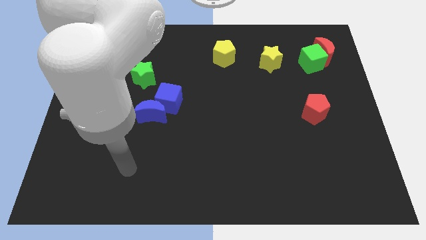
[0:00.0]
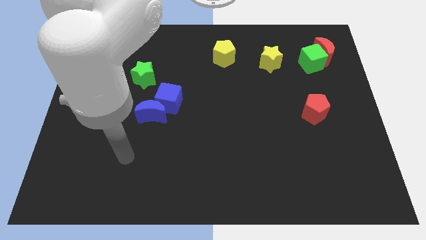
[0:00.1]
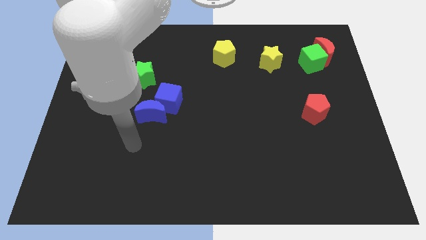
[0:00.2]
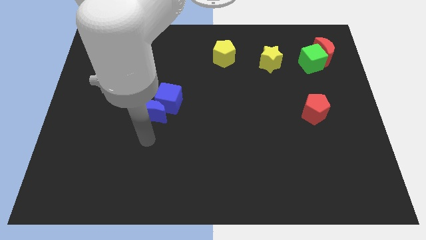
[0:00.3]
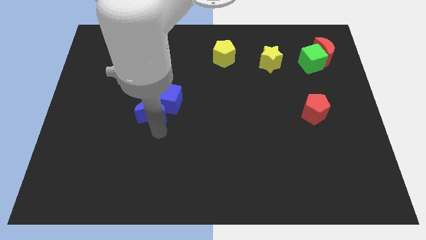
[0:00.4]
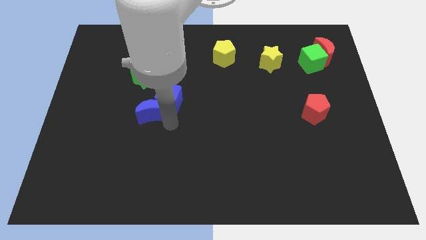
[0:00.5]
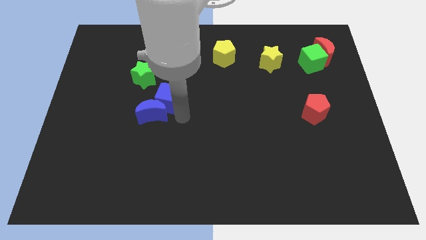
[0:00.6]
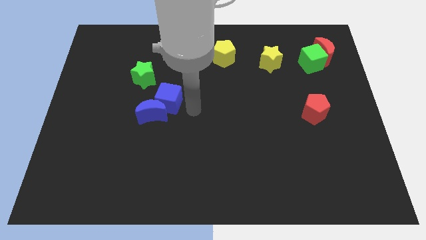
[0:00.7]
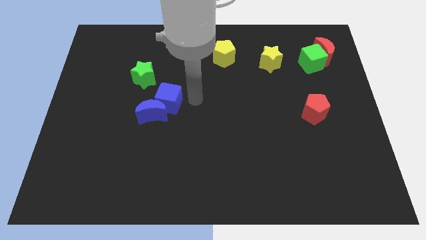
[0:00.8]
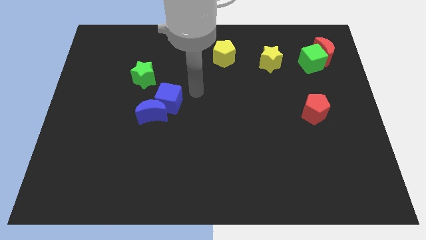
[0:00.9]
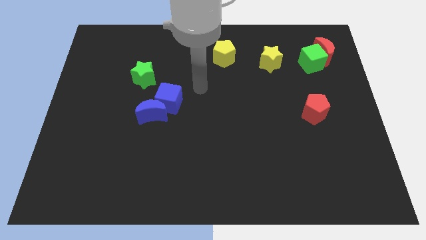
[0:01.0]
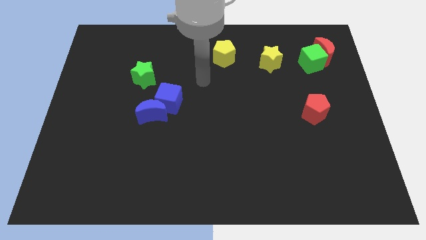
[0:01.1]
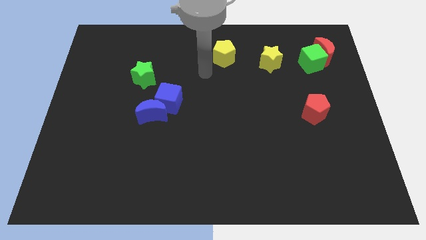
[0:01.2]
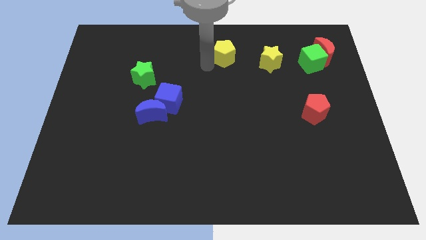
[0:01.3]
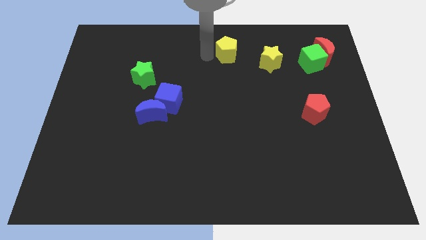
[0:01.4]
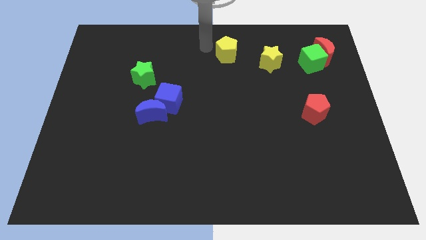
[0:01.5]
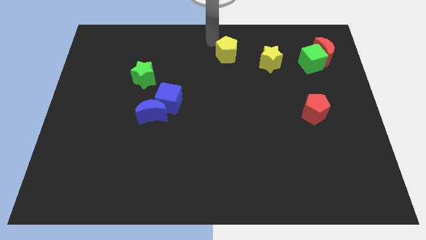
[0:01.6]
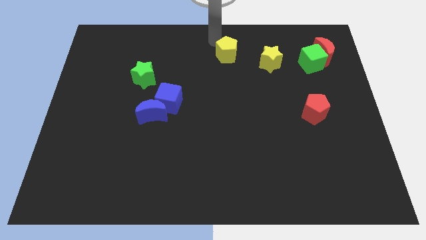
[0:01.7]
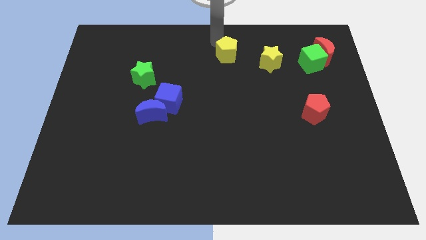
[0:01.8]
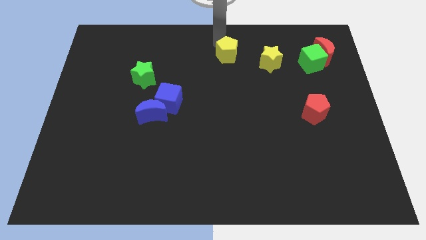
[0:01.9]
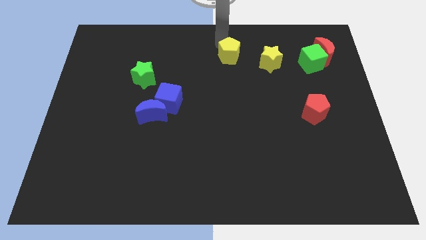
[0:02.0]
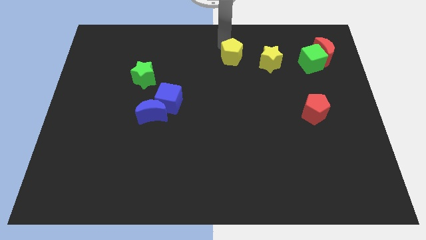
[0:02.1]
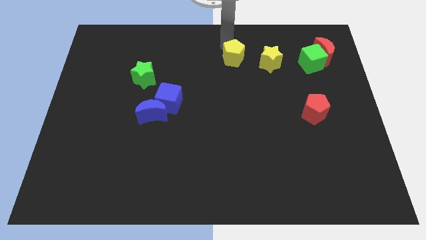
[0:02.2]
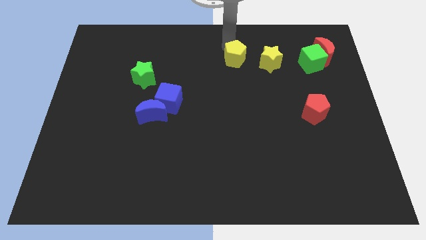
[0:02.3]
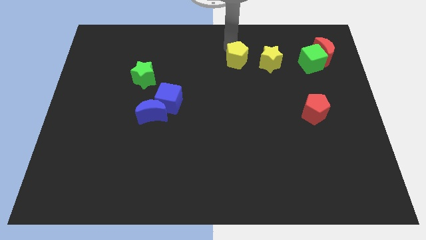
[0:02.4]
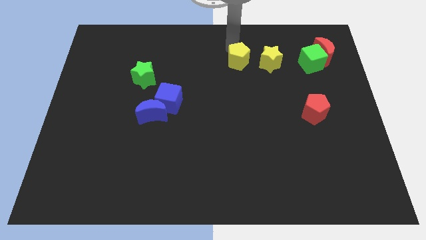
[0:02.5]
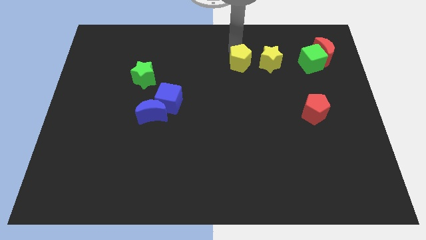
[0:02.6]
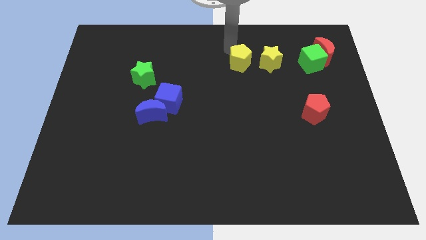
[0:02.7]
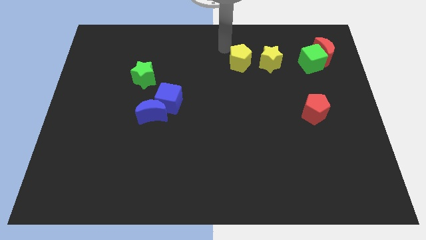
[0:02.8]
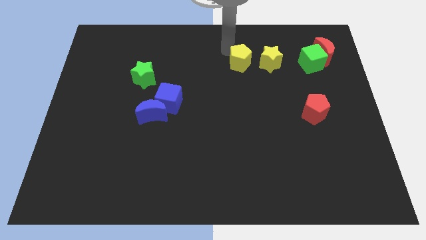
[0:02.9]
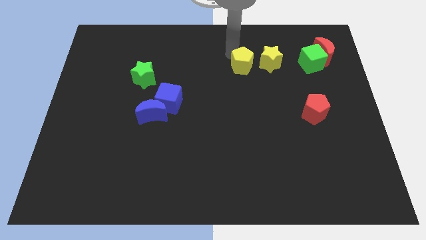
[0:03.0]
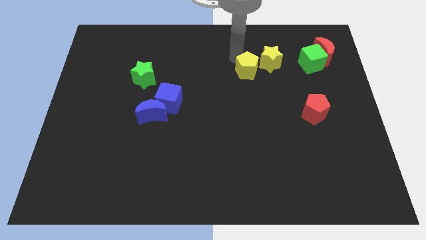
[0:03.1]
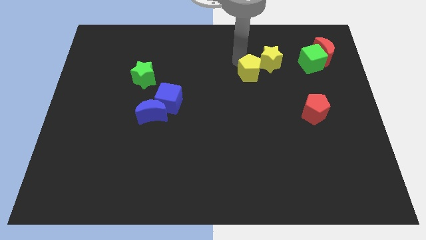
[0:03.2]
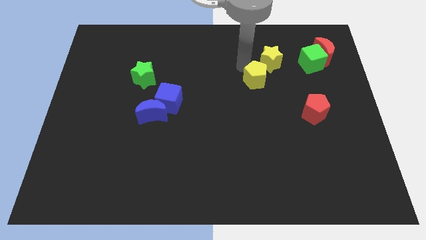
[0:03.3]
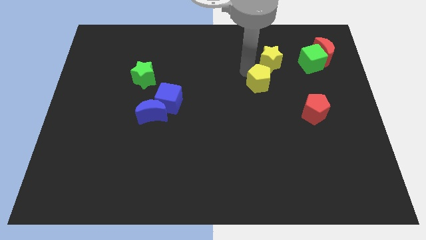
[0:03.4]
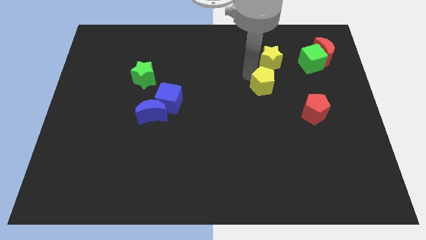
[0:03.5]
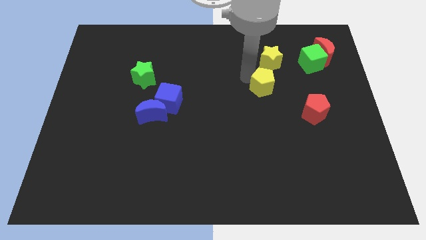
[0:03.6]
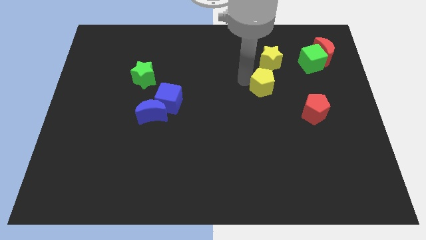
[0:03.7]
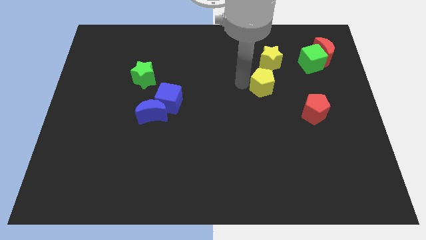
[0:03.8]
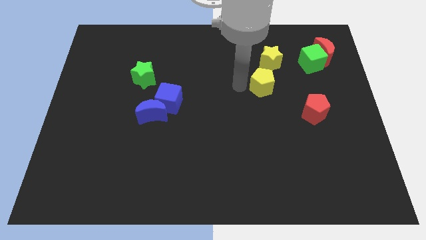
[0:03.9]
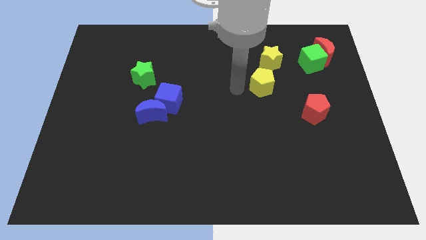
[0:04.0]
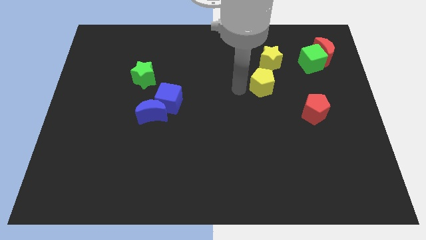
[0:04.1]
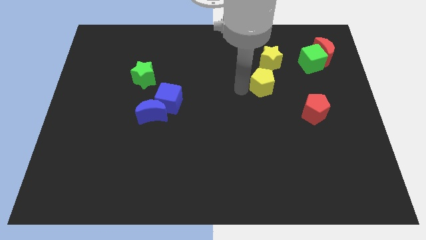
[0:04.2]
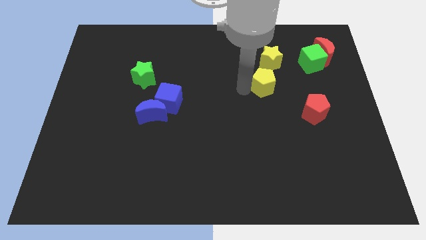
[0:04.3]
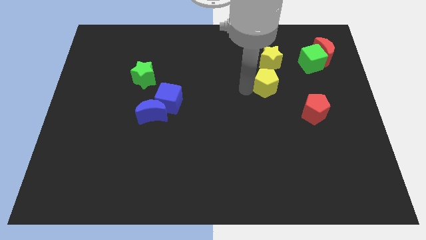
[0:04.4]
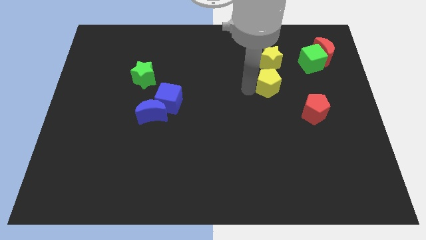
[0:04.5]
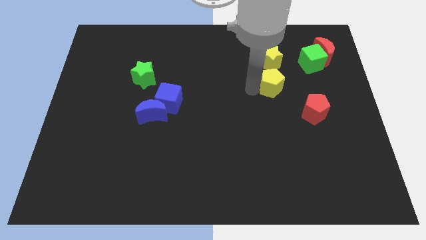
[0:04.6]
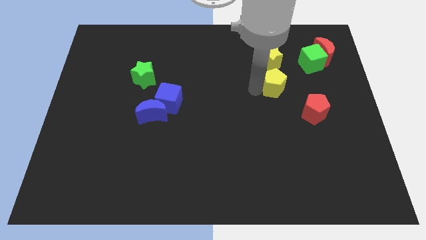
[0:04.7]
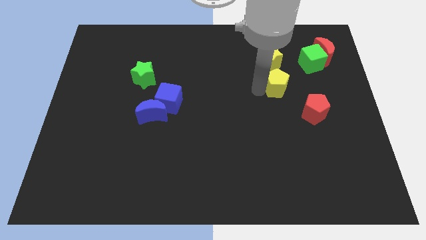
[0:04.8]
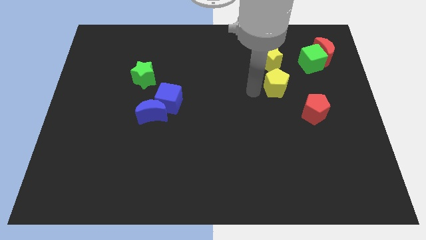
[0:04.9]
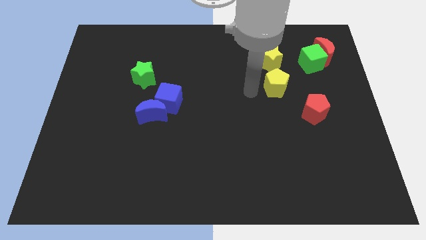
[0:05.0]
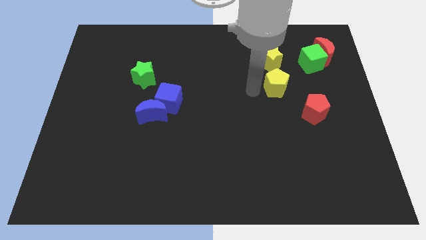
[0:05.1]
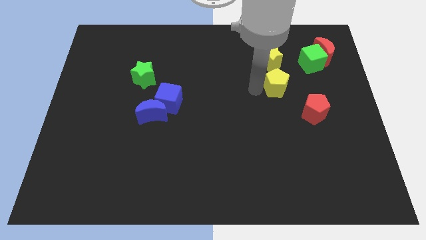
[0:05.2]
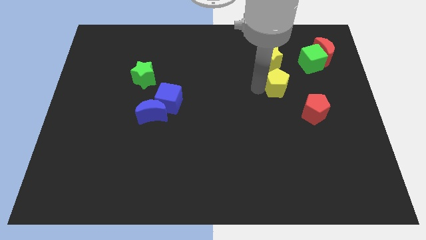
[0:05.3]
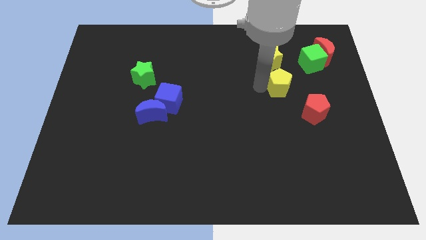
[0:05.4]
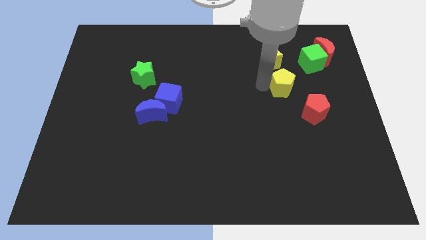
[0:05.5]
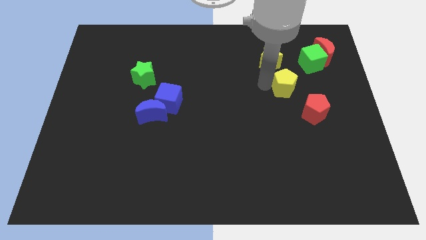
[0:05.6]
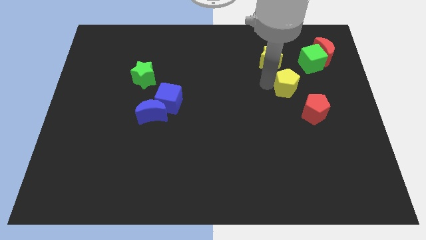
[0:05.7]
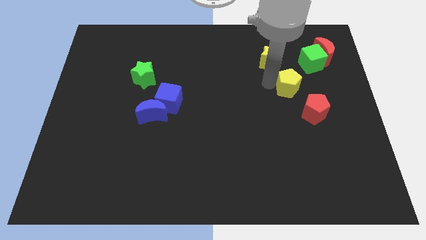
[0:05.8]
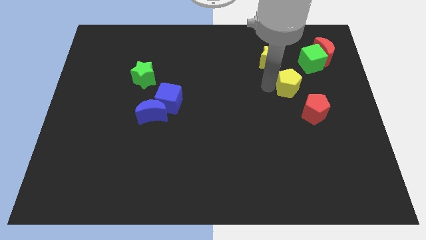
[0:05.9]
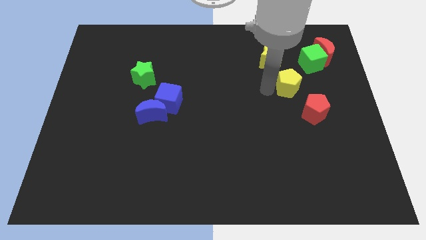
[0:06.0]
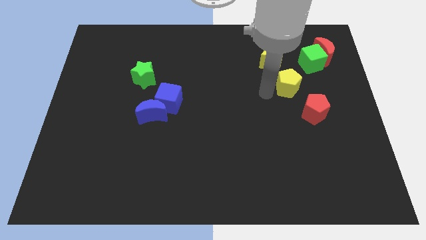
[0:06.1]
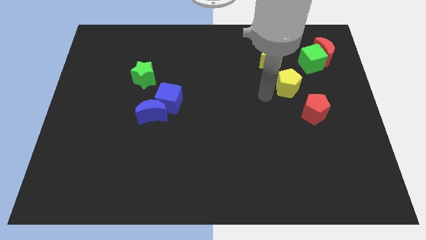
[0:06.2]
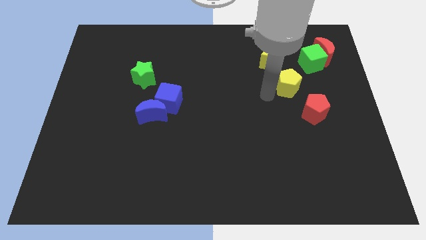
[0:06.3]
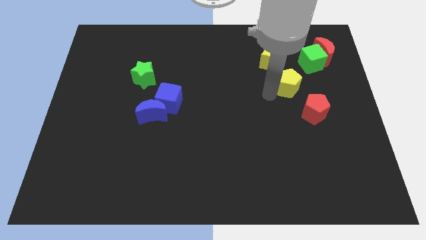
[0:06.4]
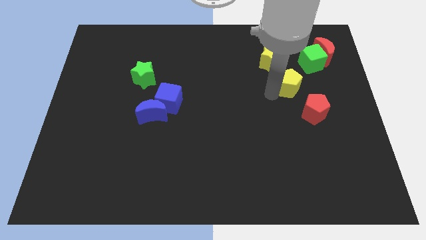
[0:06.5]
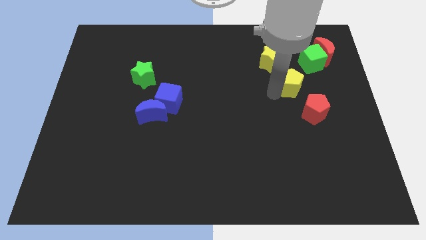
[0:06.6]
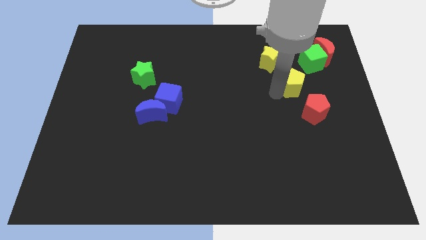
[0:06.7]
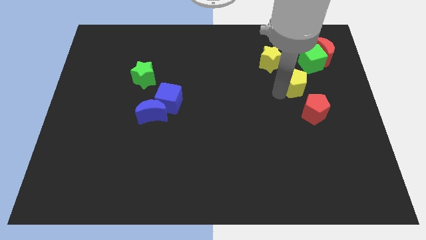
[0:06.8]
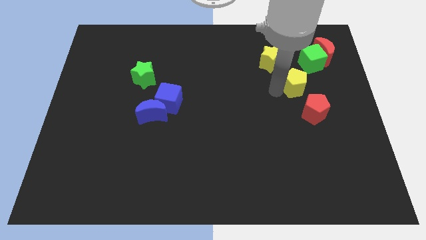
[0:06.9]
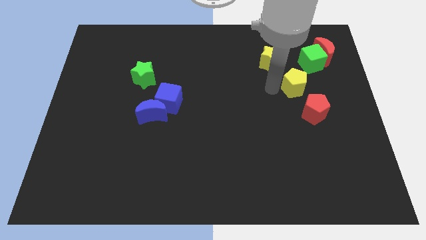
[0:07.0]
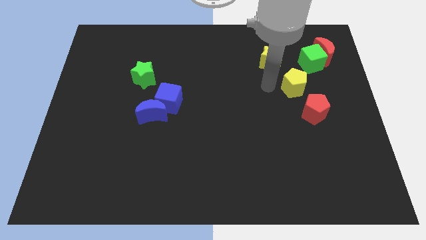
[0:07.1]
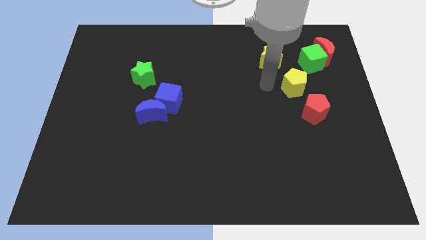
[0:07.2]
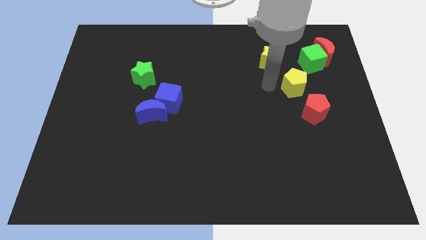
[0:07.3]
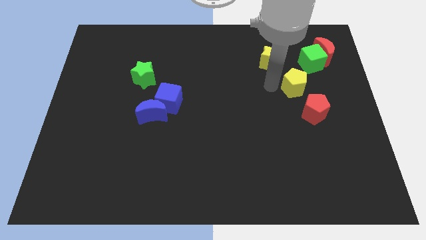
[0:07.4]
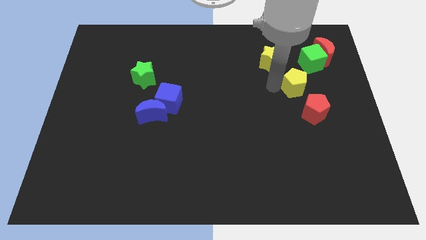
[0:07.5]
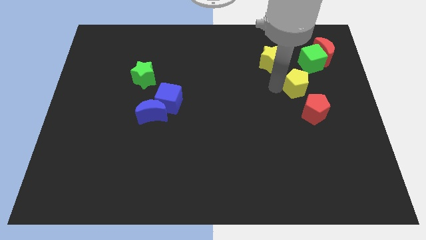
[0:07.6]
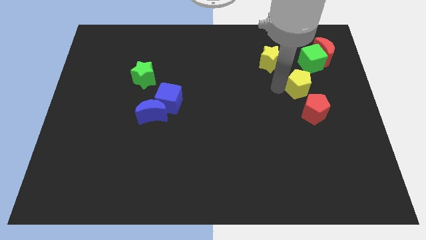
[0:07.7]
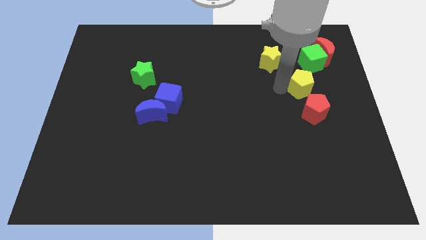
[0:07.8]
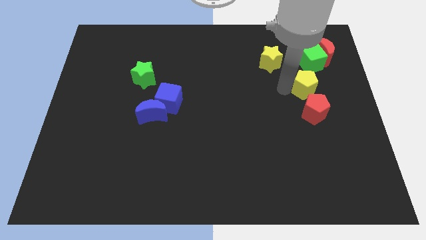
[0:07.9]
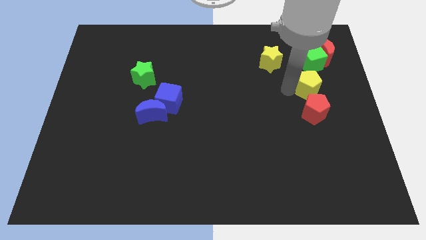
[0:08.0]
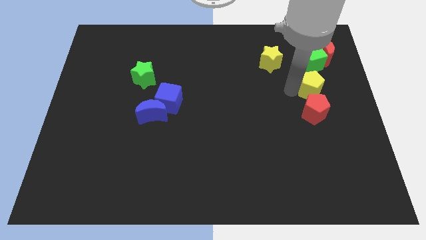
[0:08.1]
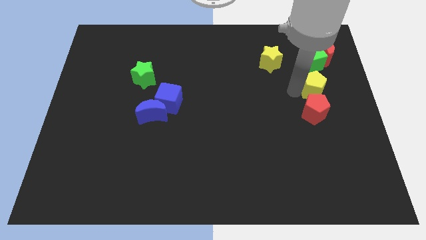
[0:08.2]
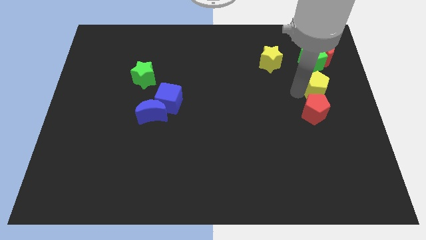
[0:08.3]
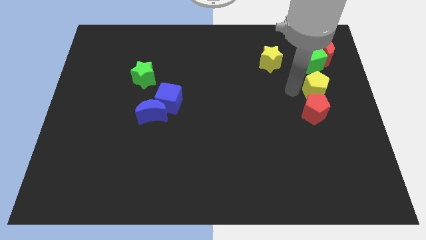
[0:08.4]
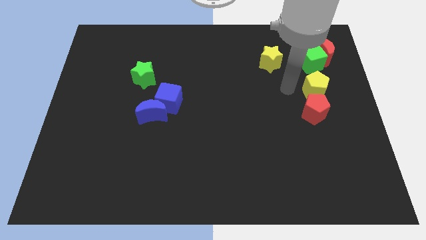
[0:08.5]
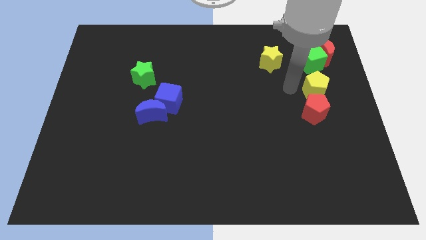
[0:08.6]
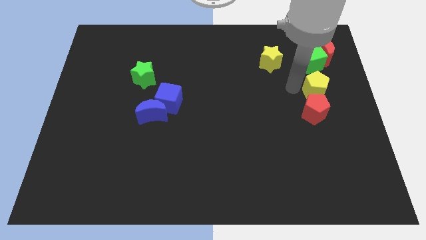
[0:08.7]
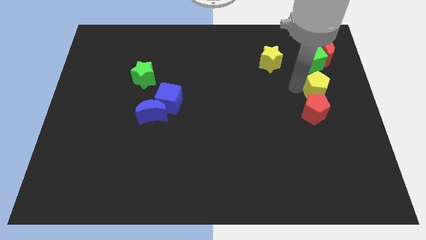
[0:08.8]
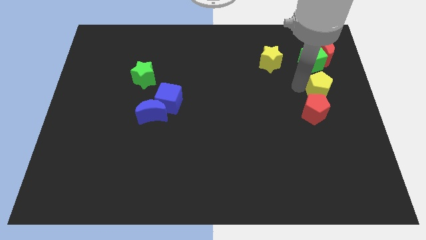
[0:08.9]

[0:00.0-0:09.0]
slide the yellow pentagon to the right side
